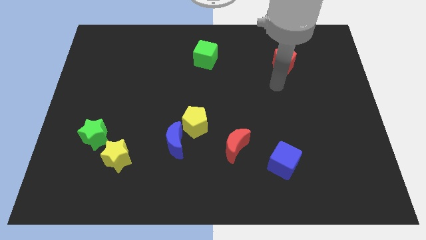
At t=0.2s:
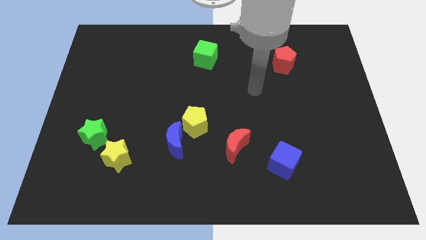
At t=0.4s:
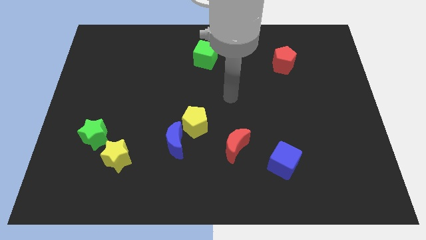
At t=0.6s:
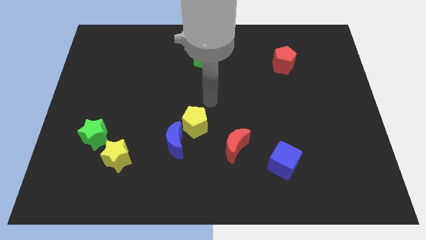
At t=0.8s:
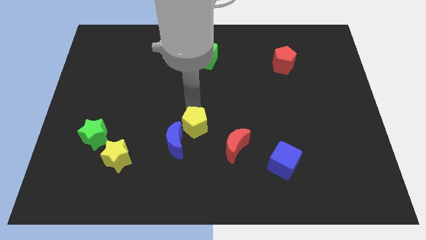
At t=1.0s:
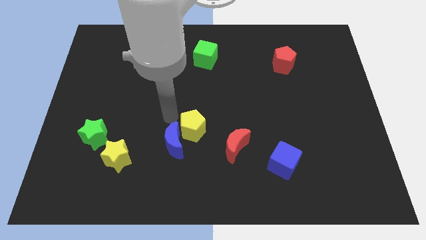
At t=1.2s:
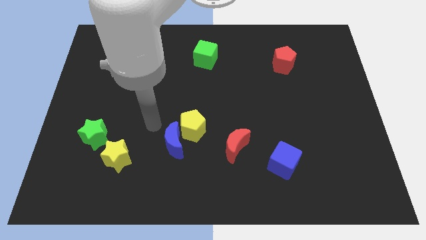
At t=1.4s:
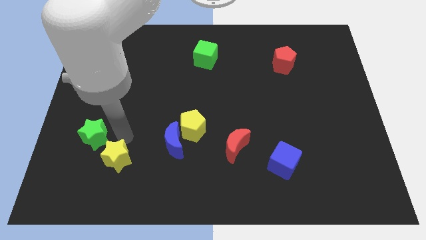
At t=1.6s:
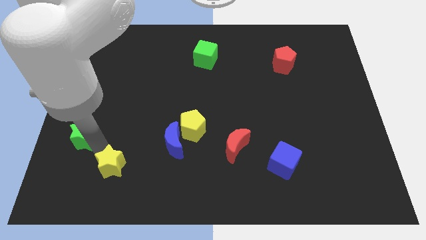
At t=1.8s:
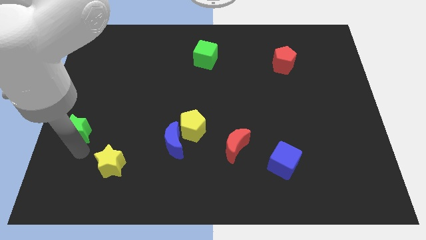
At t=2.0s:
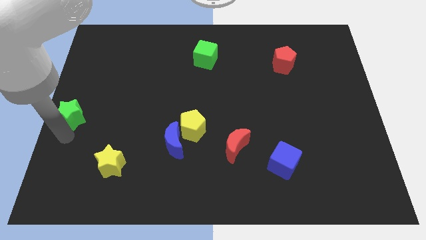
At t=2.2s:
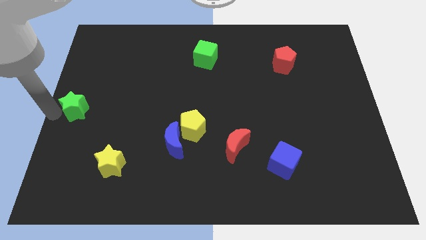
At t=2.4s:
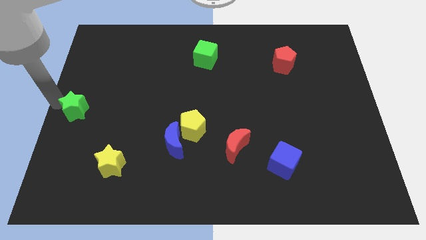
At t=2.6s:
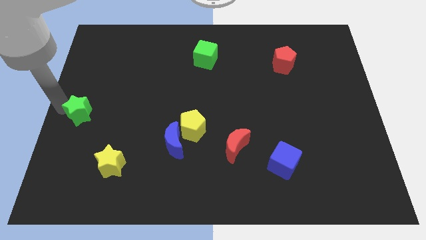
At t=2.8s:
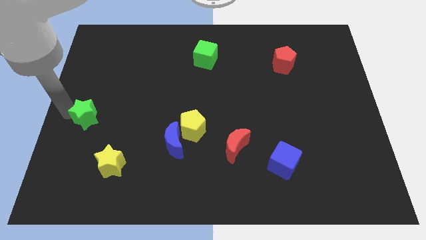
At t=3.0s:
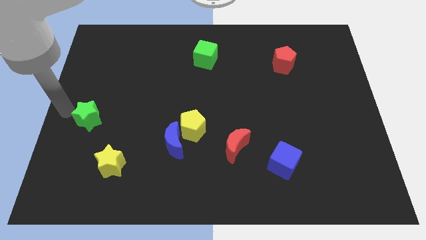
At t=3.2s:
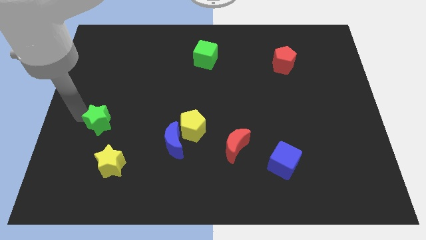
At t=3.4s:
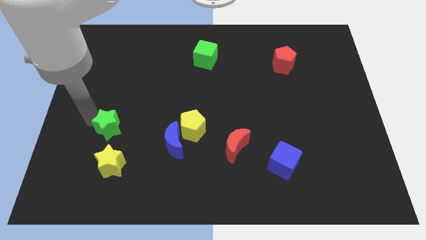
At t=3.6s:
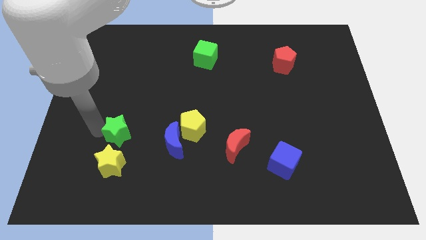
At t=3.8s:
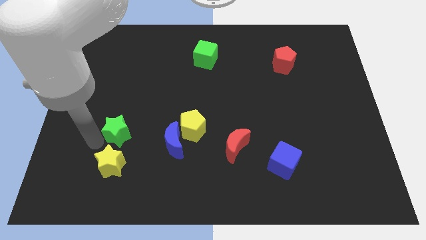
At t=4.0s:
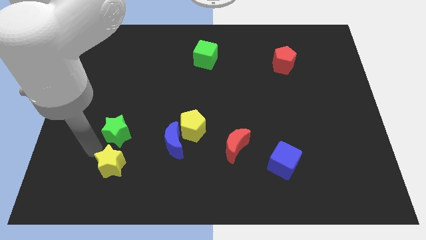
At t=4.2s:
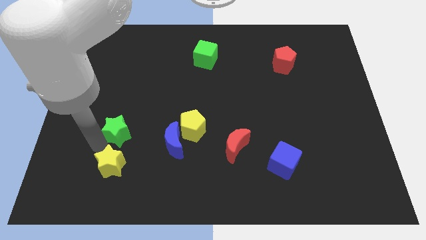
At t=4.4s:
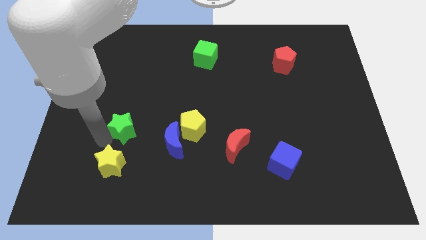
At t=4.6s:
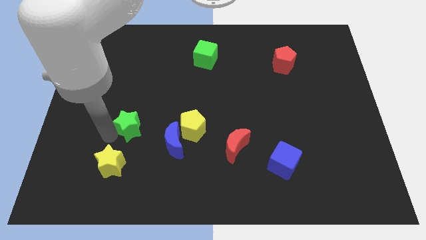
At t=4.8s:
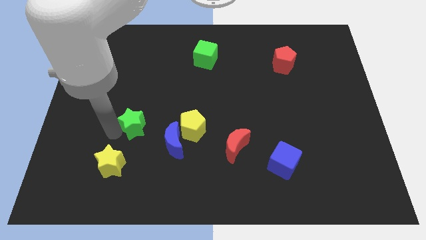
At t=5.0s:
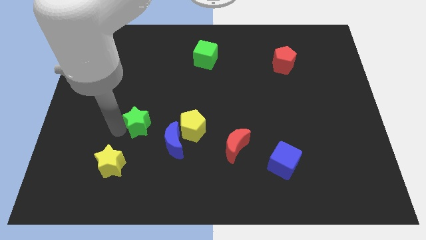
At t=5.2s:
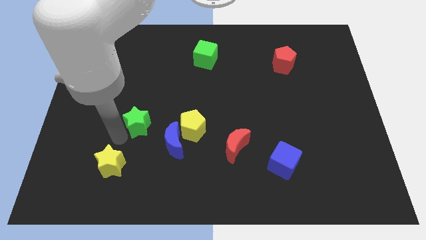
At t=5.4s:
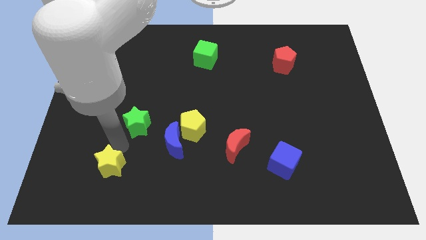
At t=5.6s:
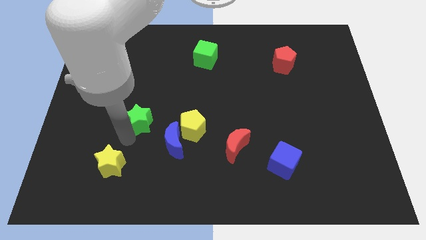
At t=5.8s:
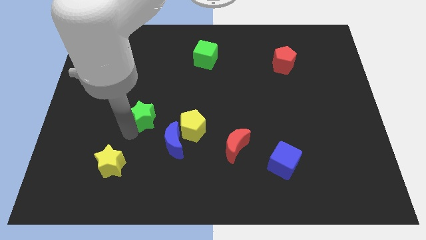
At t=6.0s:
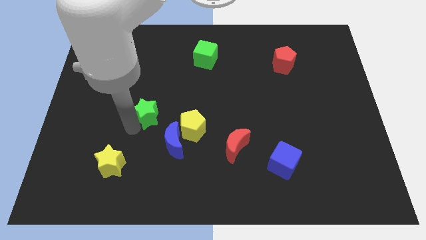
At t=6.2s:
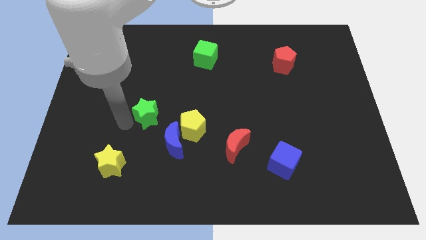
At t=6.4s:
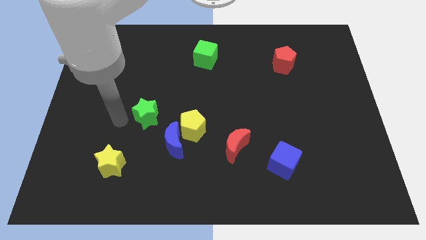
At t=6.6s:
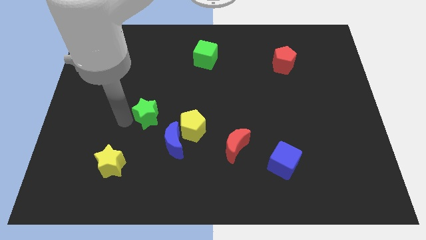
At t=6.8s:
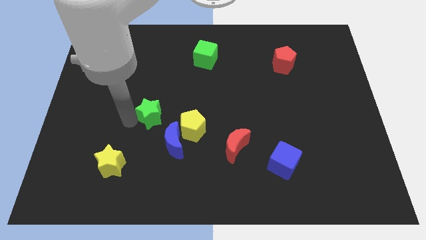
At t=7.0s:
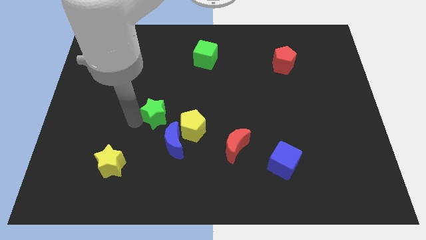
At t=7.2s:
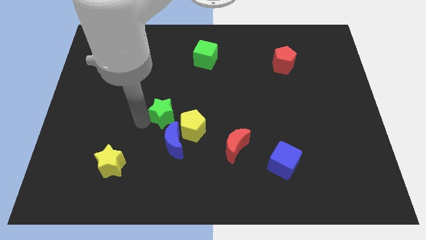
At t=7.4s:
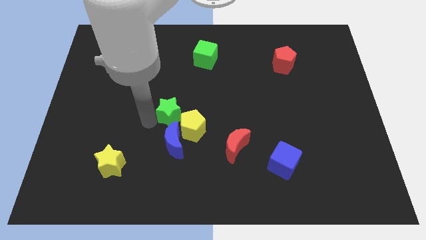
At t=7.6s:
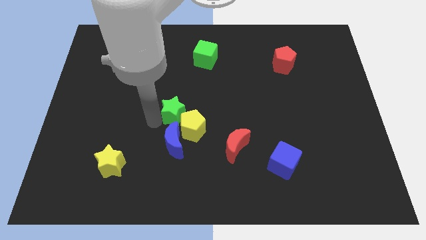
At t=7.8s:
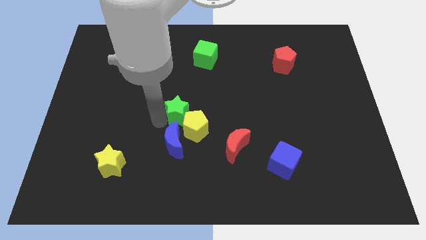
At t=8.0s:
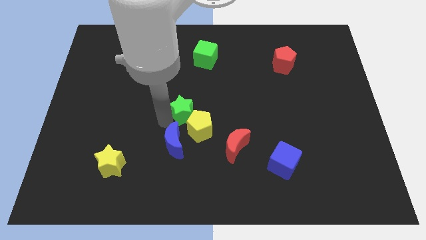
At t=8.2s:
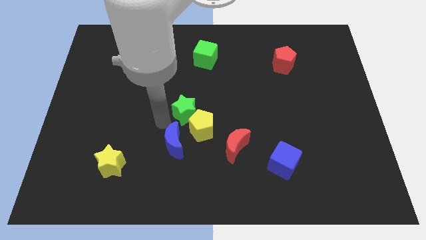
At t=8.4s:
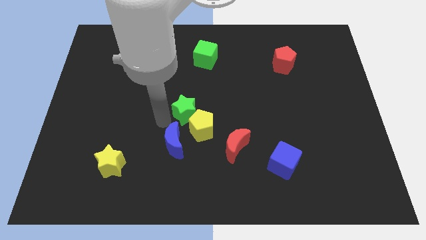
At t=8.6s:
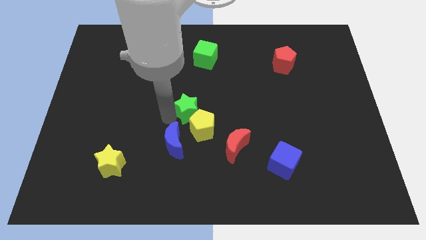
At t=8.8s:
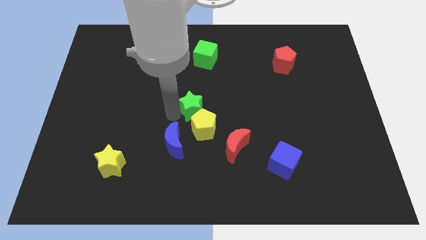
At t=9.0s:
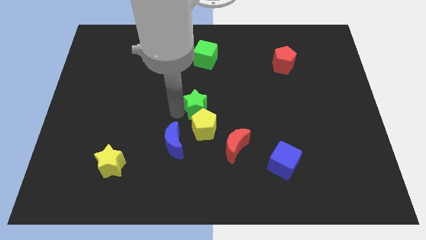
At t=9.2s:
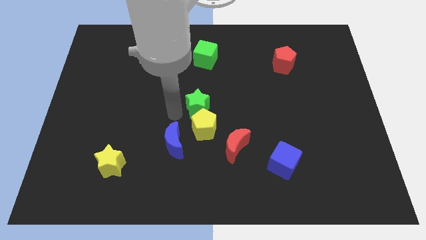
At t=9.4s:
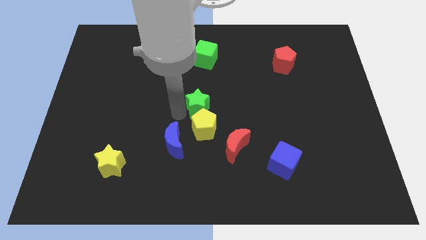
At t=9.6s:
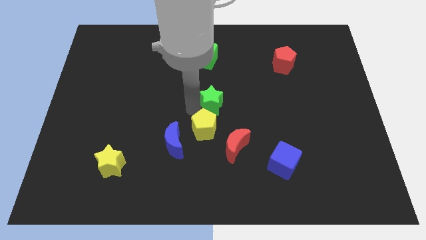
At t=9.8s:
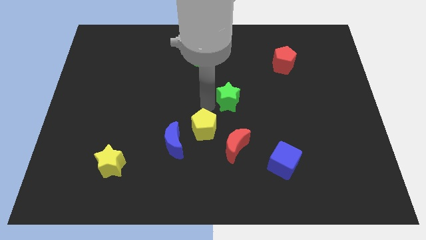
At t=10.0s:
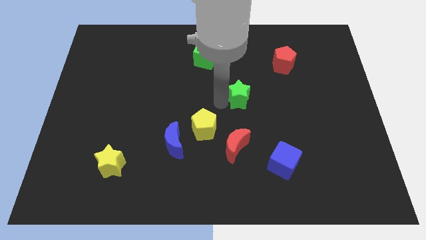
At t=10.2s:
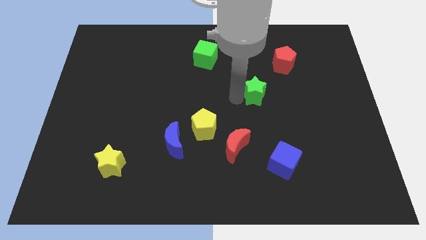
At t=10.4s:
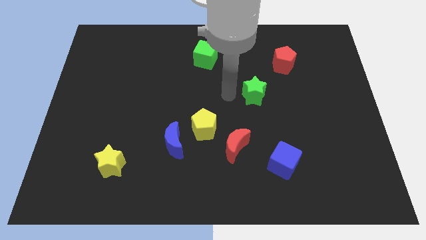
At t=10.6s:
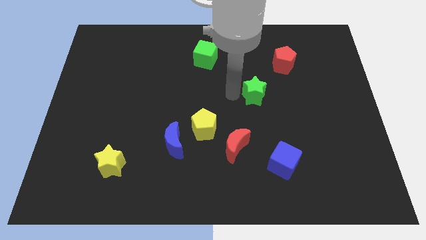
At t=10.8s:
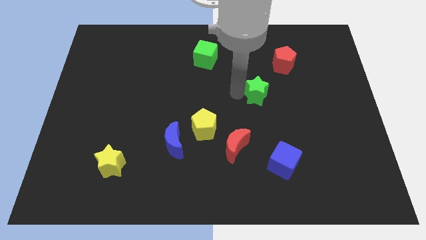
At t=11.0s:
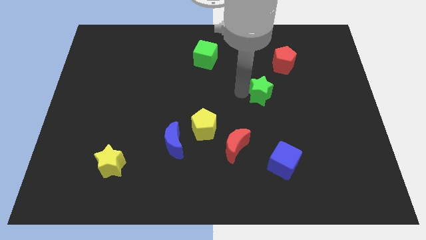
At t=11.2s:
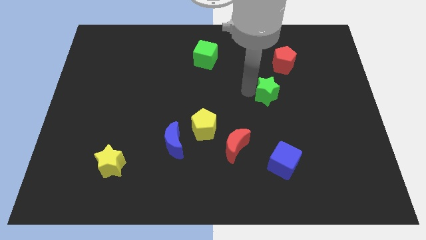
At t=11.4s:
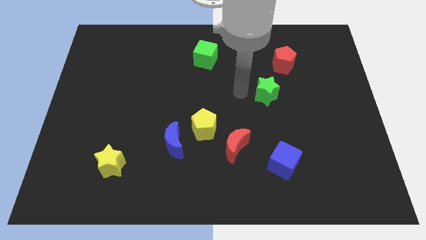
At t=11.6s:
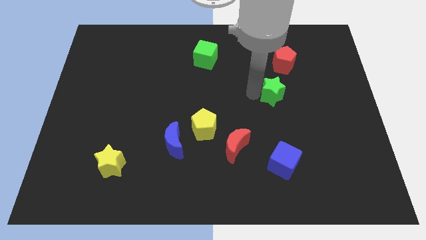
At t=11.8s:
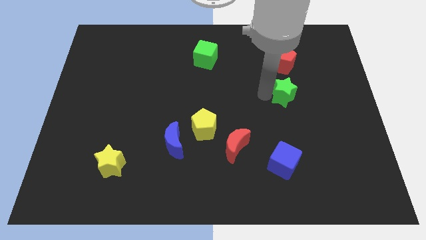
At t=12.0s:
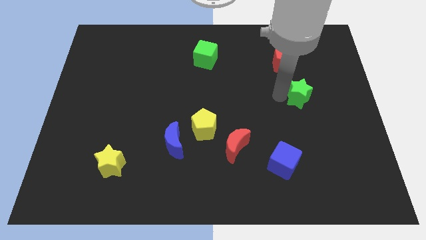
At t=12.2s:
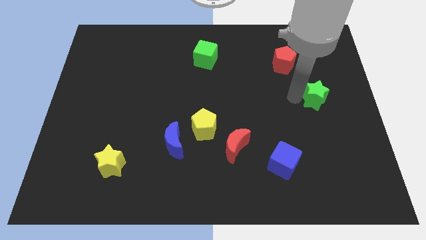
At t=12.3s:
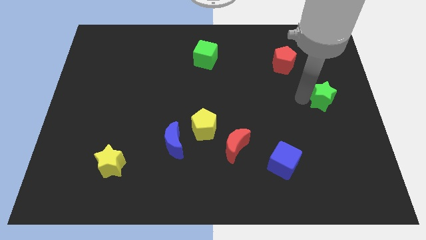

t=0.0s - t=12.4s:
put the green star to the right side

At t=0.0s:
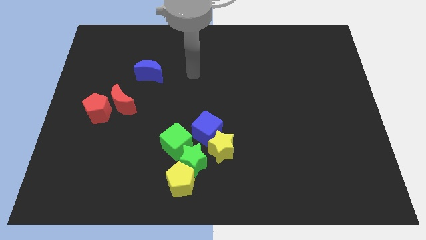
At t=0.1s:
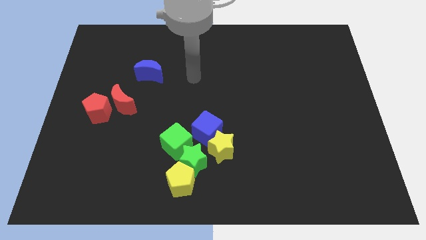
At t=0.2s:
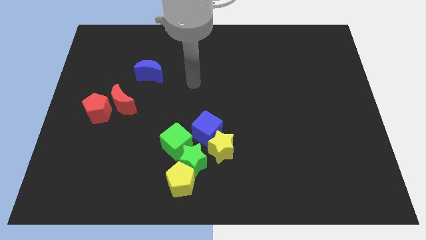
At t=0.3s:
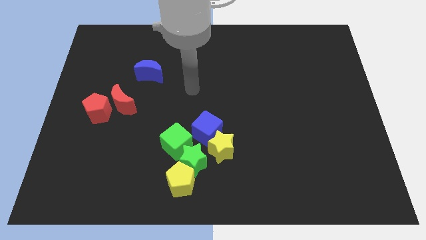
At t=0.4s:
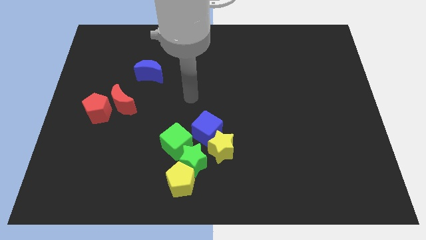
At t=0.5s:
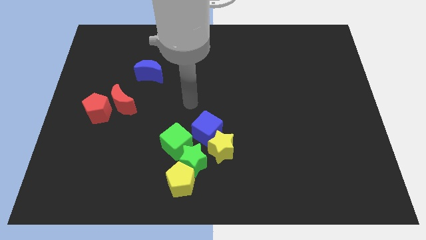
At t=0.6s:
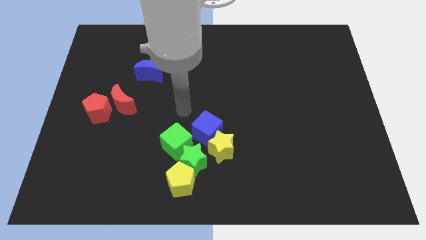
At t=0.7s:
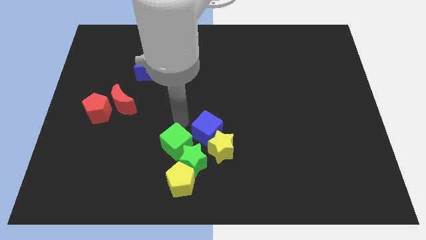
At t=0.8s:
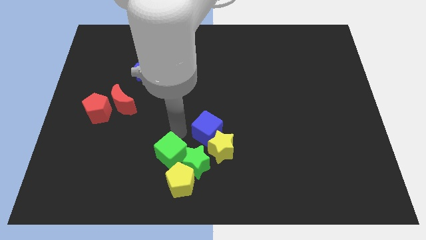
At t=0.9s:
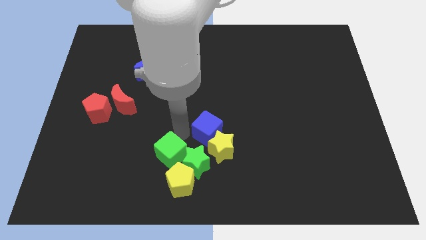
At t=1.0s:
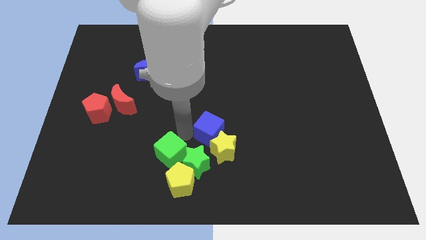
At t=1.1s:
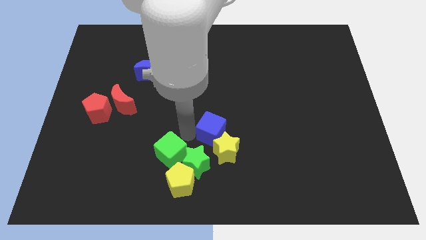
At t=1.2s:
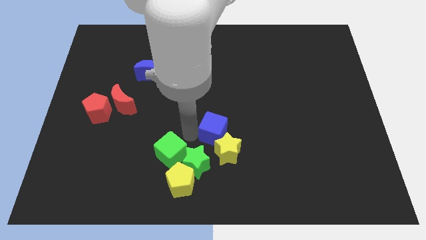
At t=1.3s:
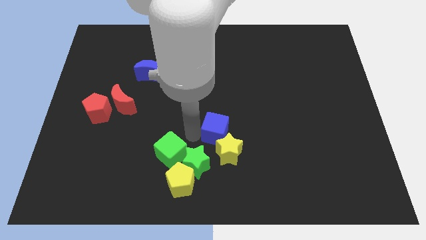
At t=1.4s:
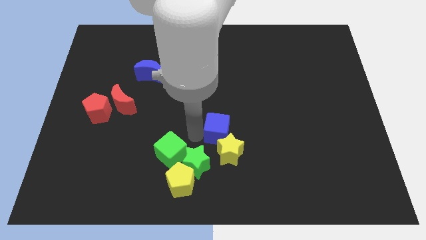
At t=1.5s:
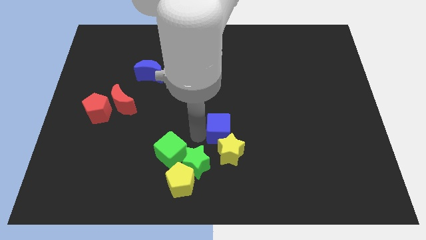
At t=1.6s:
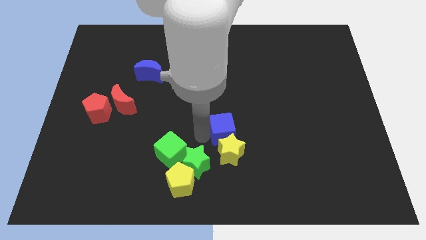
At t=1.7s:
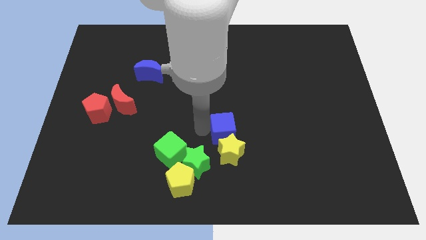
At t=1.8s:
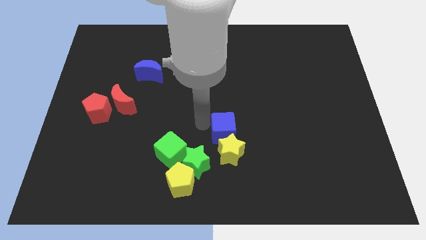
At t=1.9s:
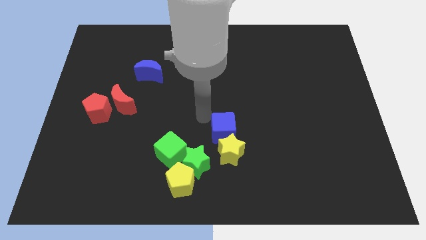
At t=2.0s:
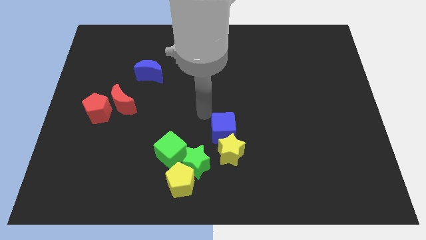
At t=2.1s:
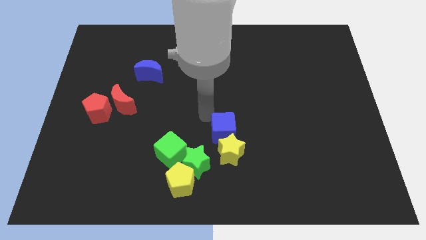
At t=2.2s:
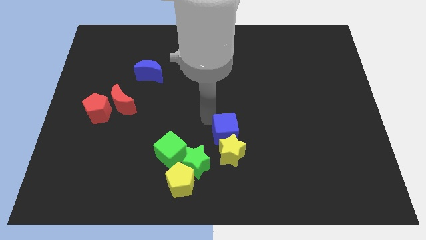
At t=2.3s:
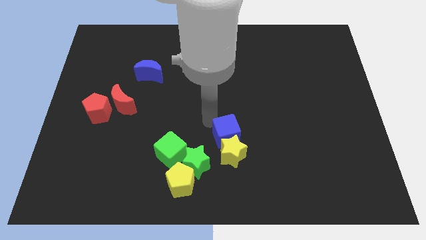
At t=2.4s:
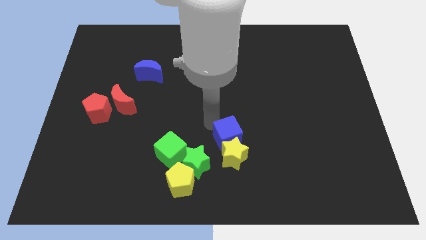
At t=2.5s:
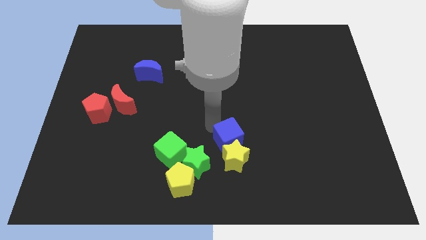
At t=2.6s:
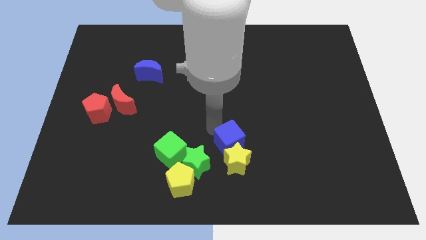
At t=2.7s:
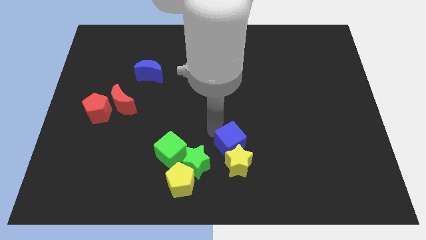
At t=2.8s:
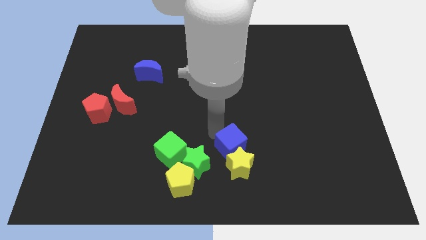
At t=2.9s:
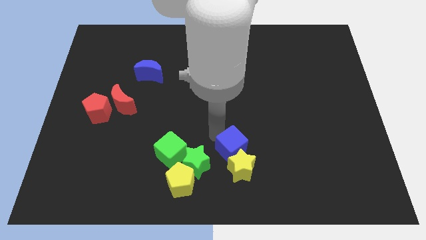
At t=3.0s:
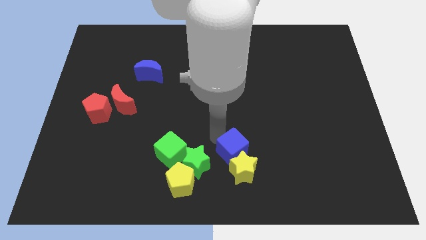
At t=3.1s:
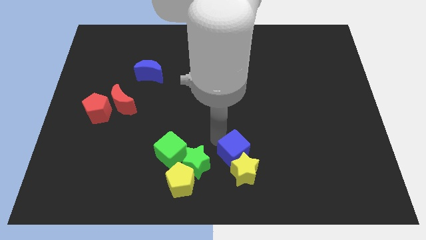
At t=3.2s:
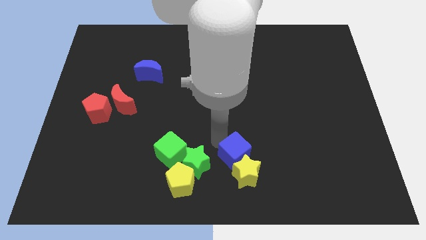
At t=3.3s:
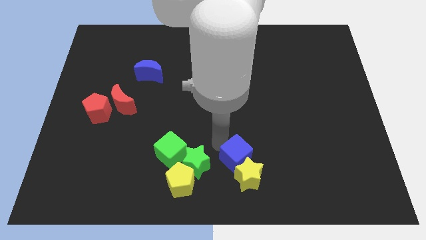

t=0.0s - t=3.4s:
slide the blue cube to the bottom side
